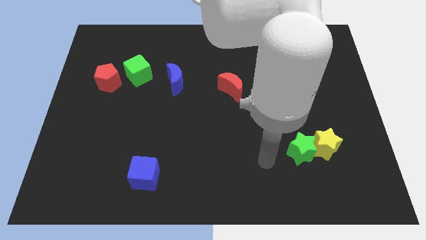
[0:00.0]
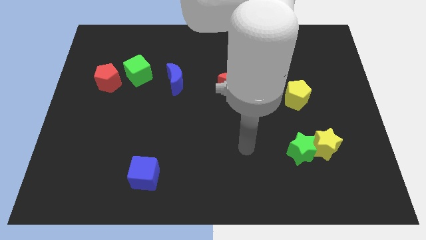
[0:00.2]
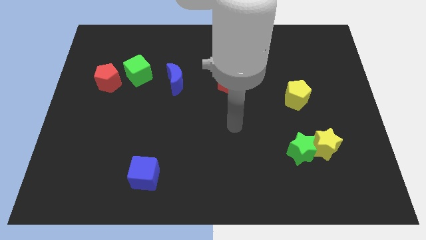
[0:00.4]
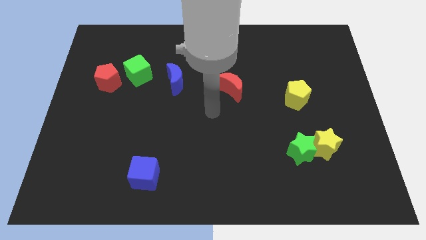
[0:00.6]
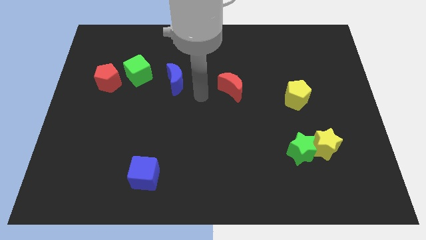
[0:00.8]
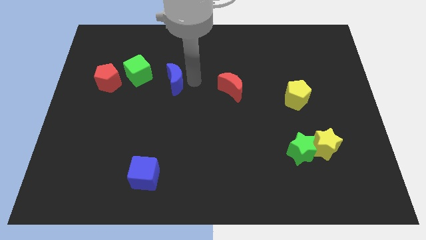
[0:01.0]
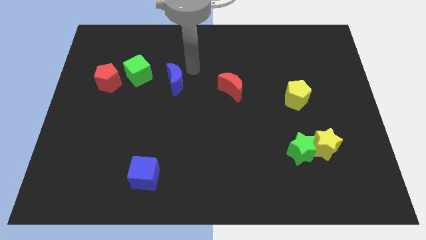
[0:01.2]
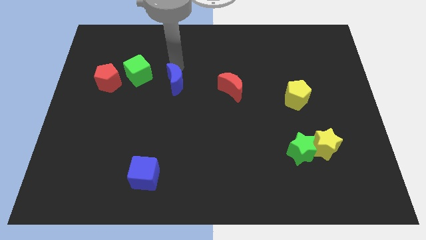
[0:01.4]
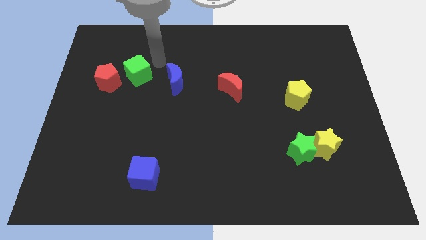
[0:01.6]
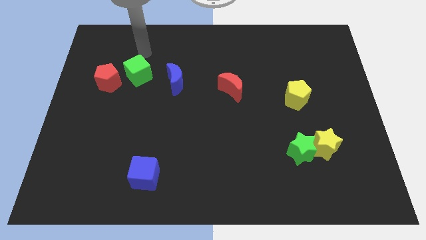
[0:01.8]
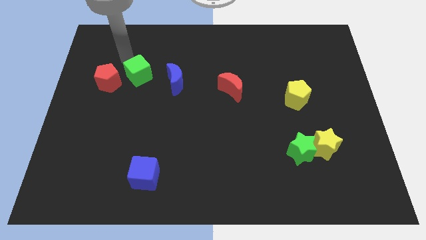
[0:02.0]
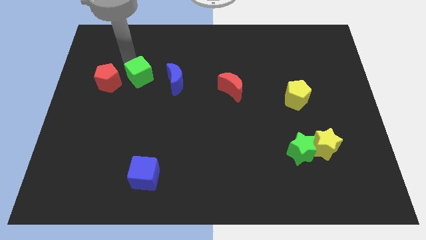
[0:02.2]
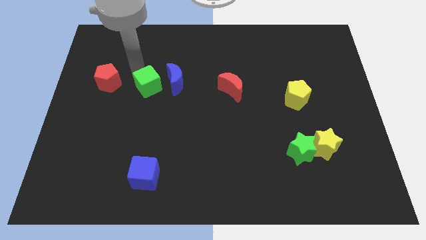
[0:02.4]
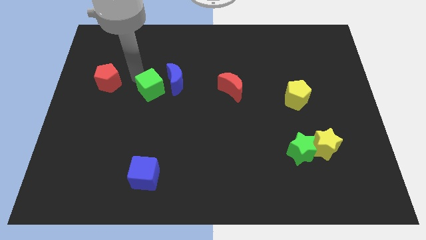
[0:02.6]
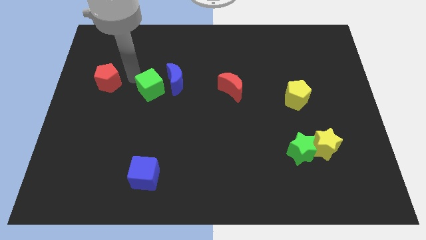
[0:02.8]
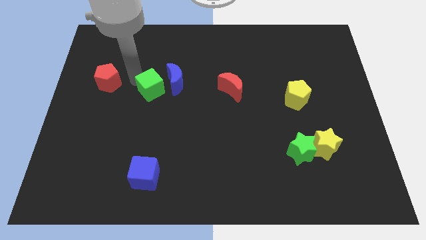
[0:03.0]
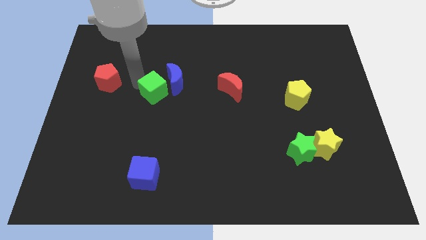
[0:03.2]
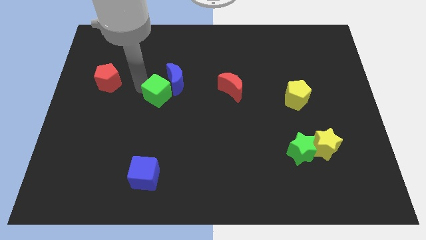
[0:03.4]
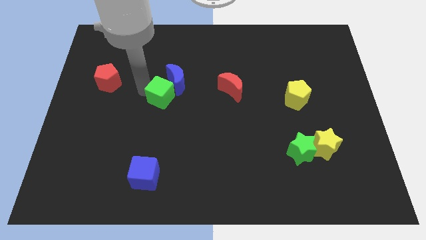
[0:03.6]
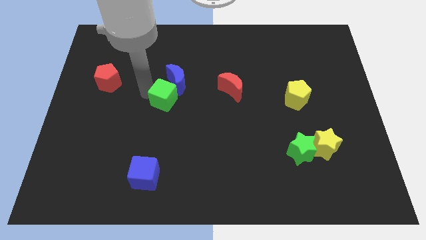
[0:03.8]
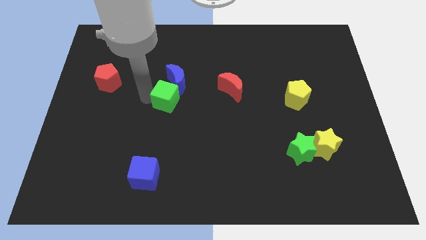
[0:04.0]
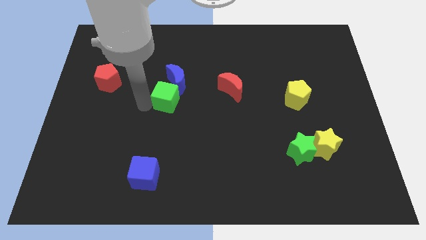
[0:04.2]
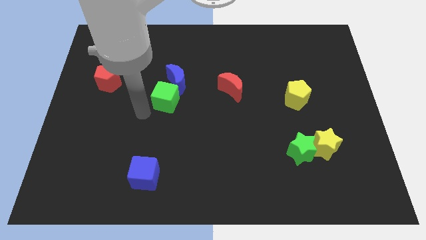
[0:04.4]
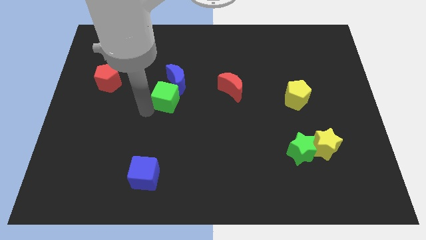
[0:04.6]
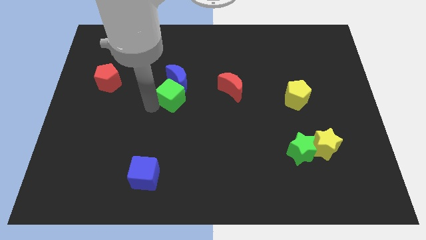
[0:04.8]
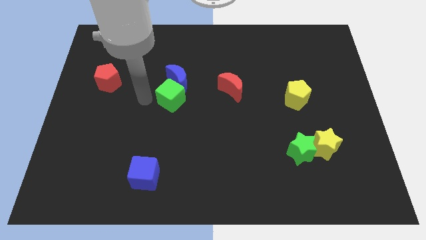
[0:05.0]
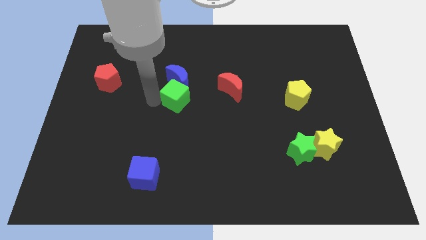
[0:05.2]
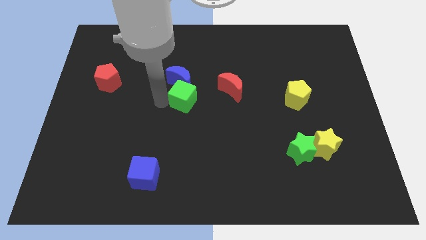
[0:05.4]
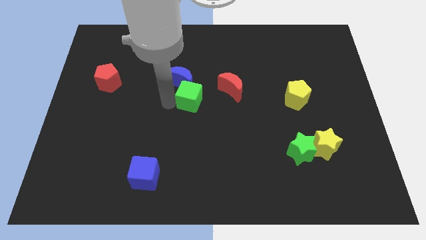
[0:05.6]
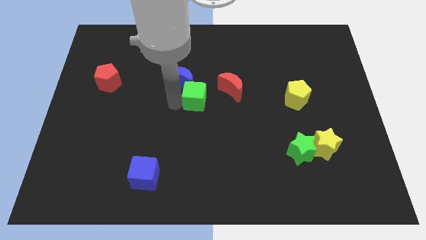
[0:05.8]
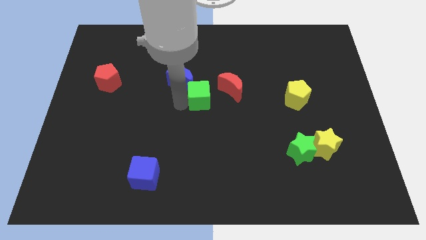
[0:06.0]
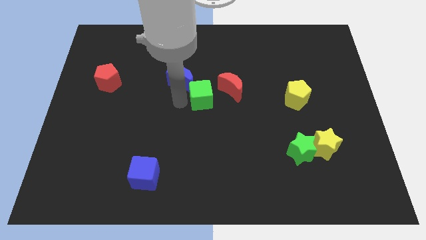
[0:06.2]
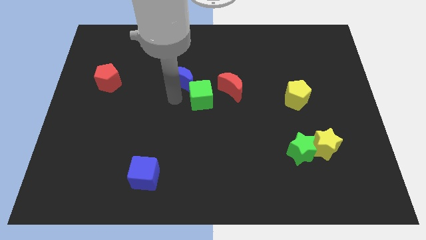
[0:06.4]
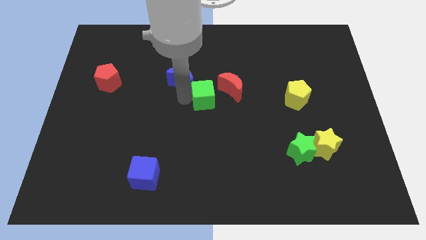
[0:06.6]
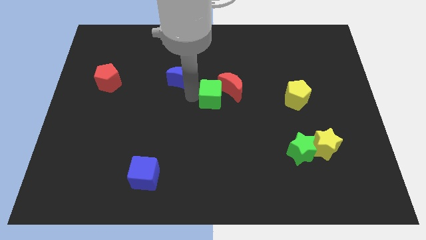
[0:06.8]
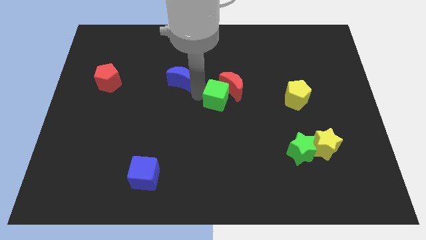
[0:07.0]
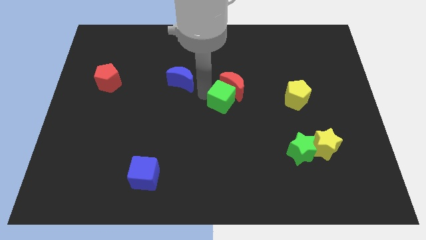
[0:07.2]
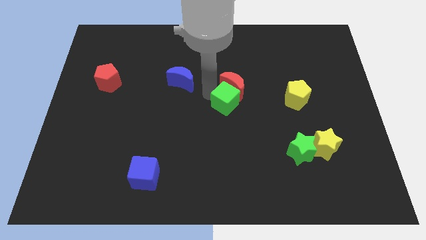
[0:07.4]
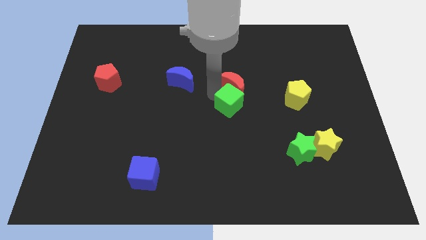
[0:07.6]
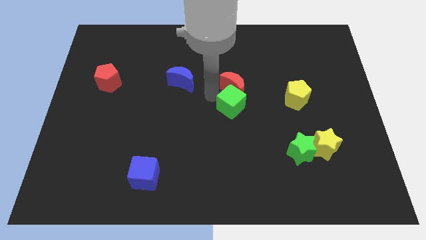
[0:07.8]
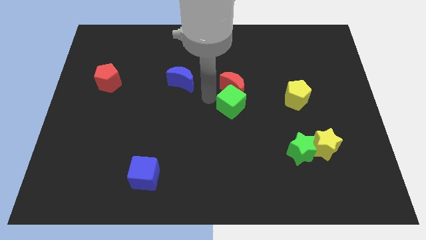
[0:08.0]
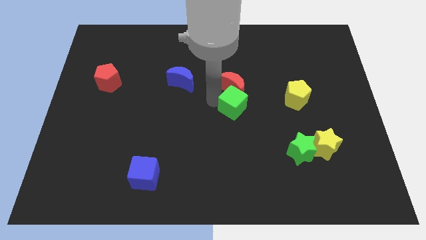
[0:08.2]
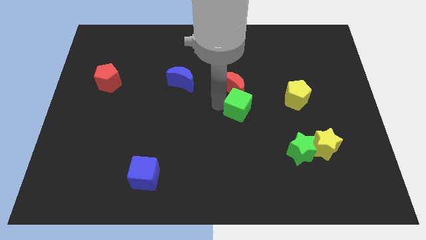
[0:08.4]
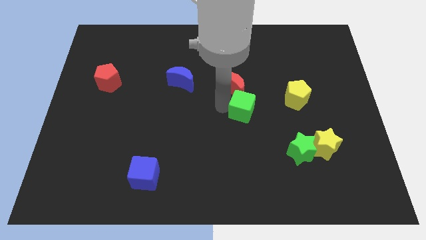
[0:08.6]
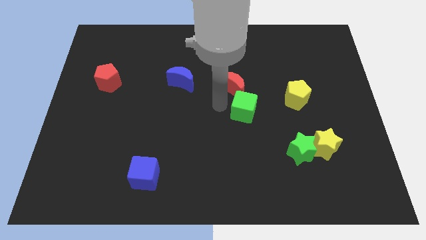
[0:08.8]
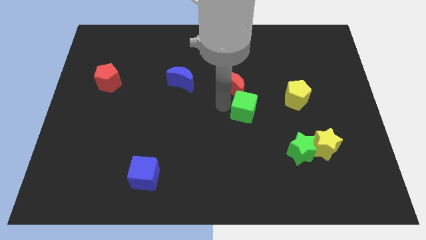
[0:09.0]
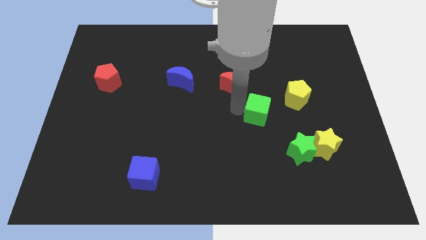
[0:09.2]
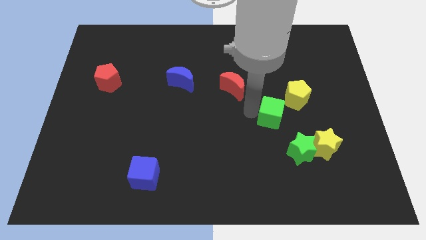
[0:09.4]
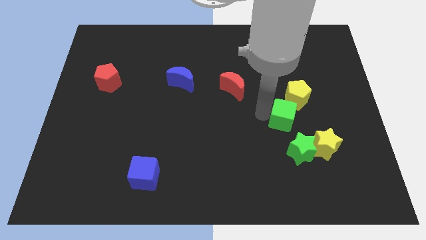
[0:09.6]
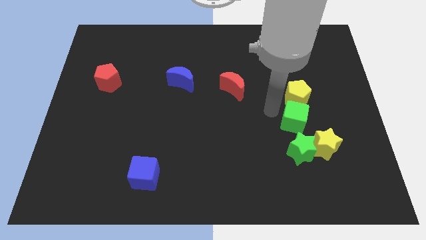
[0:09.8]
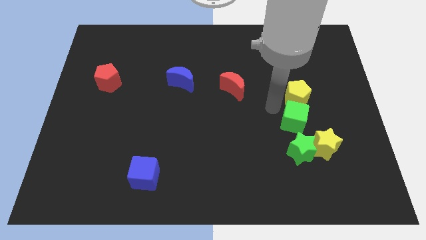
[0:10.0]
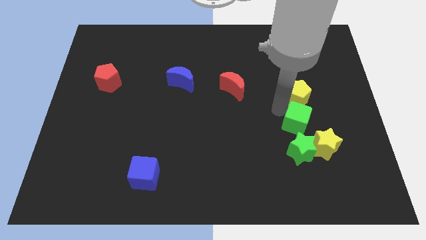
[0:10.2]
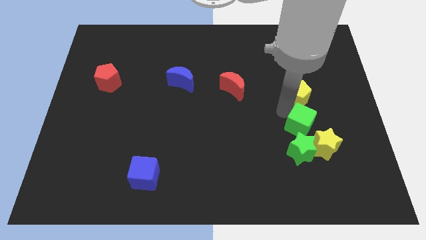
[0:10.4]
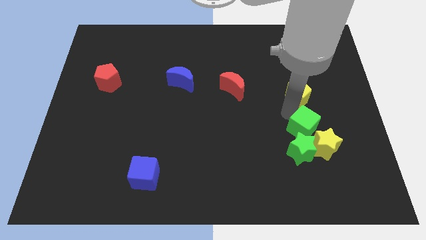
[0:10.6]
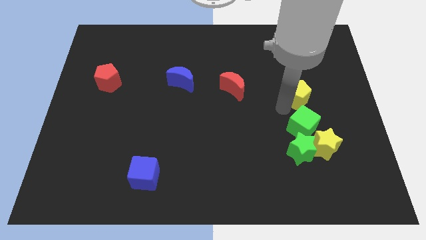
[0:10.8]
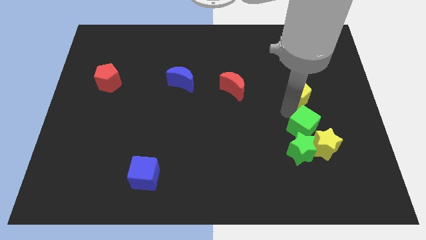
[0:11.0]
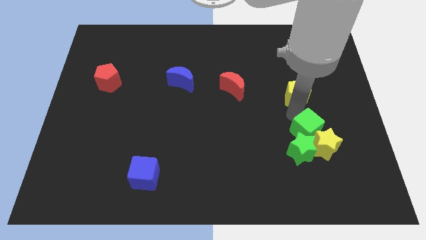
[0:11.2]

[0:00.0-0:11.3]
move the green cube towards the yellow star

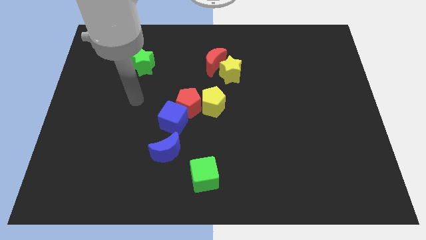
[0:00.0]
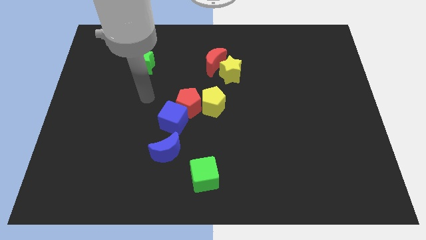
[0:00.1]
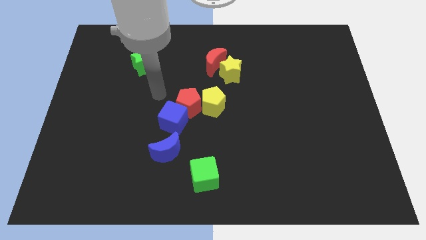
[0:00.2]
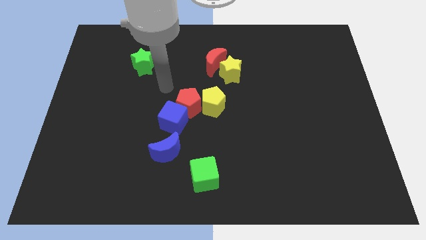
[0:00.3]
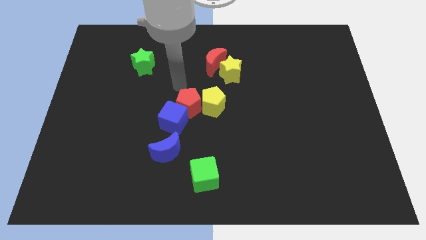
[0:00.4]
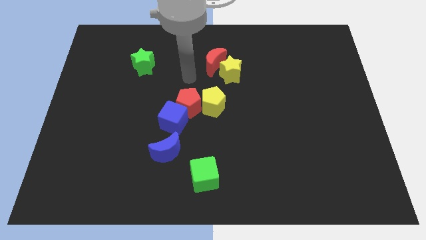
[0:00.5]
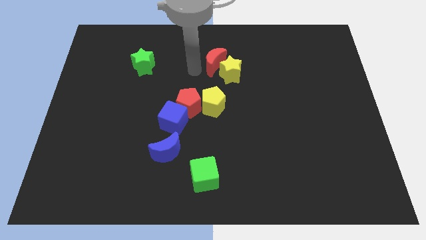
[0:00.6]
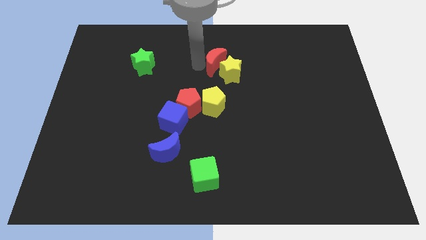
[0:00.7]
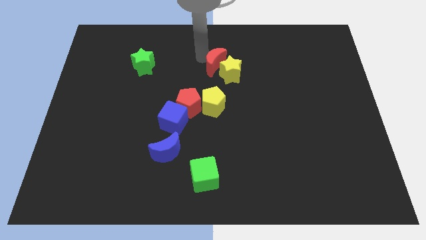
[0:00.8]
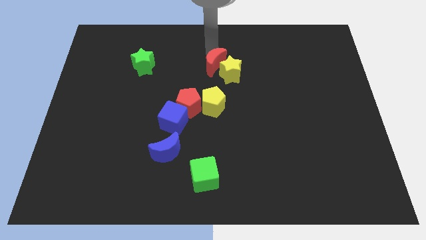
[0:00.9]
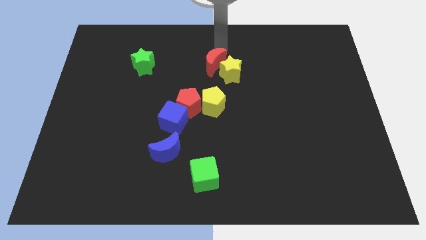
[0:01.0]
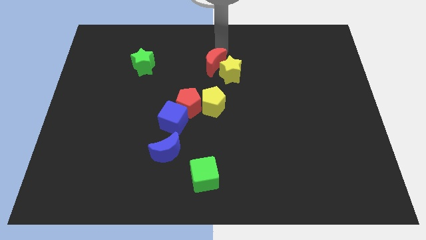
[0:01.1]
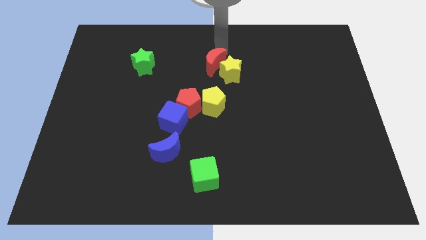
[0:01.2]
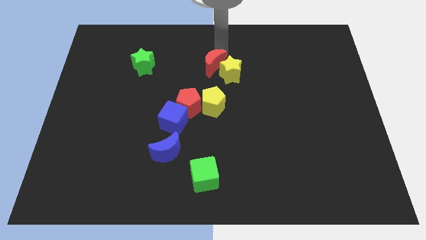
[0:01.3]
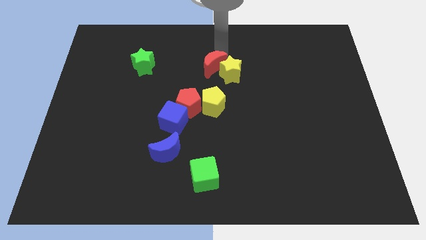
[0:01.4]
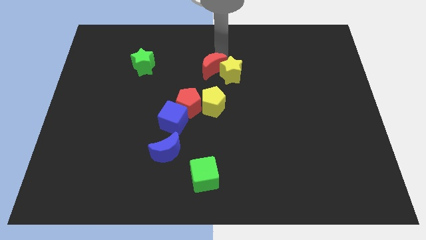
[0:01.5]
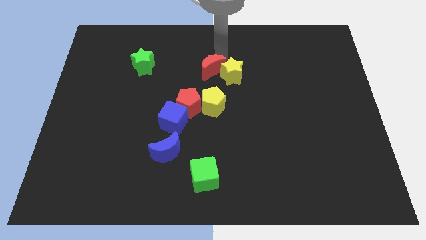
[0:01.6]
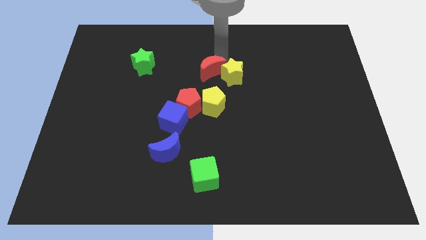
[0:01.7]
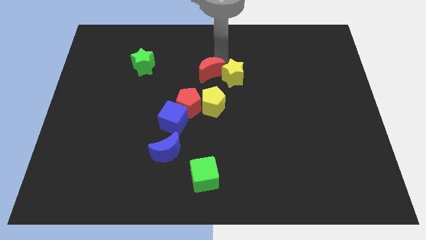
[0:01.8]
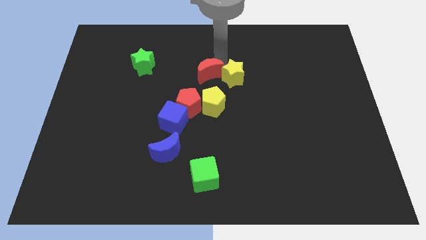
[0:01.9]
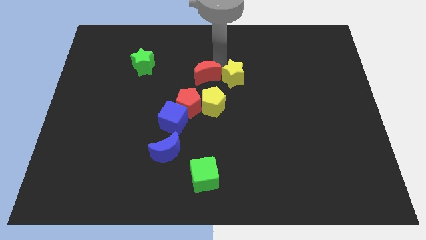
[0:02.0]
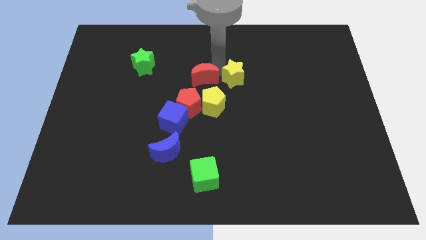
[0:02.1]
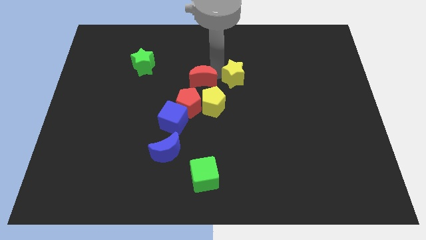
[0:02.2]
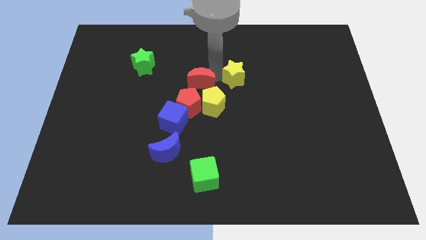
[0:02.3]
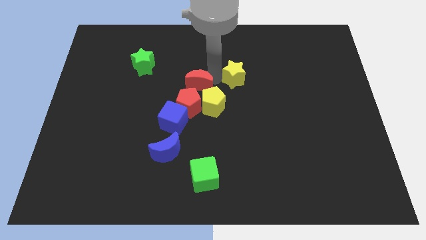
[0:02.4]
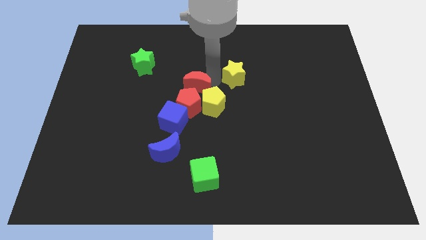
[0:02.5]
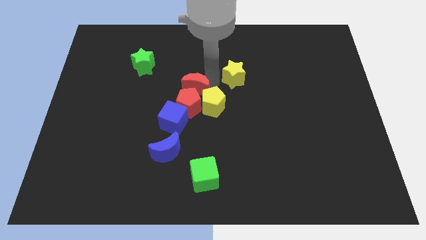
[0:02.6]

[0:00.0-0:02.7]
push the red moon close to the red pentagon
